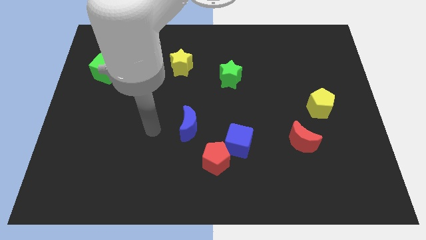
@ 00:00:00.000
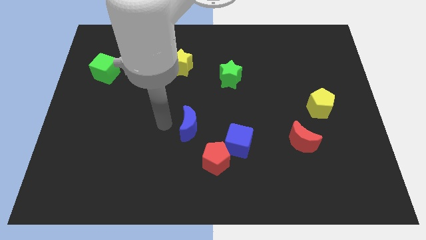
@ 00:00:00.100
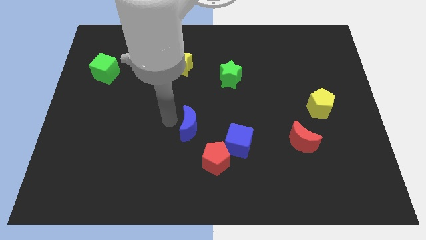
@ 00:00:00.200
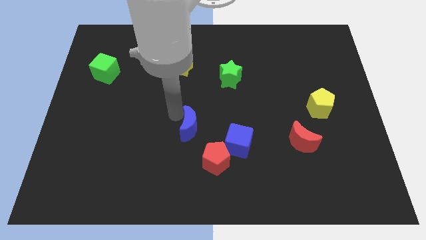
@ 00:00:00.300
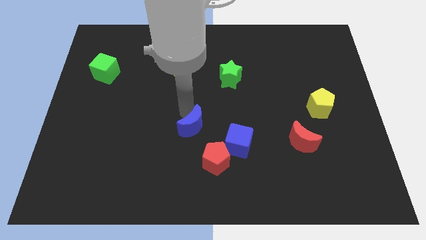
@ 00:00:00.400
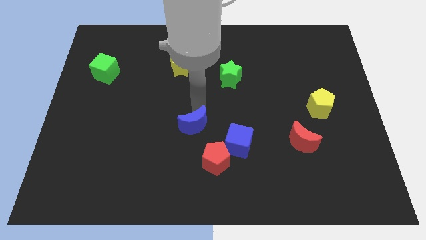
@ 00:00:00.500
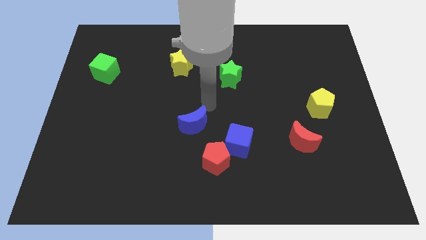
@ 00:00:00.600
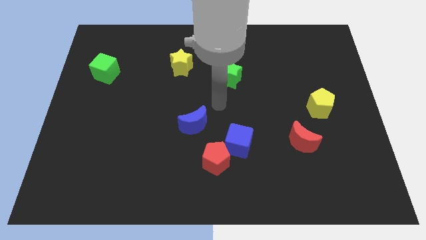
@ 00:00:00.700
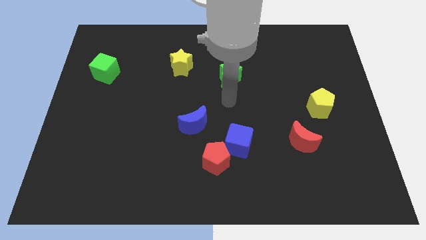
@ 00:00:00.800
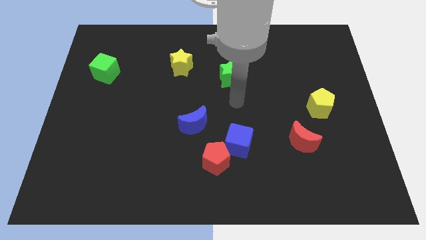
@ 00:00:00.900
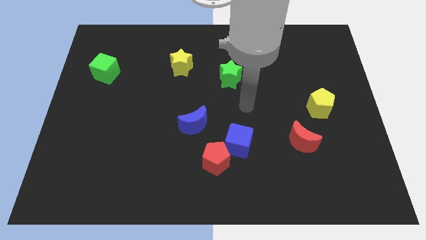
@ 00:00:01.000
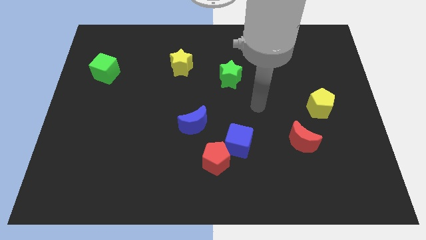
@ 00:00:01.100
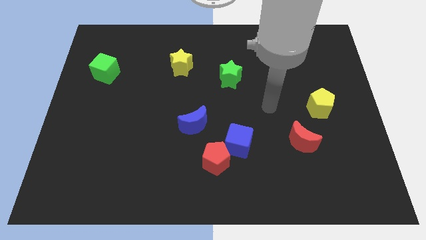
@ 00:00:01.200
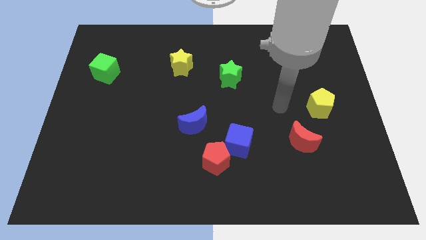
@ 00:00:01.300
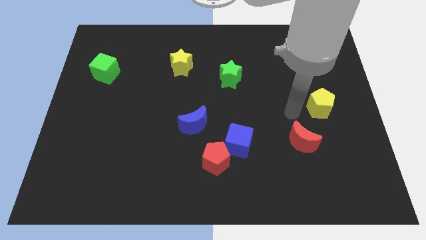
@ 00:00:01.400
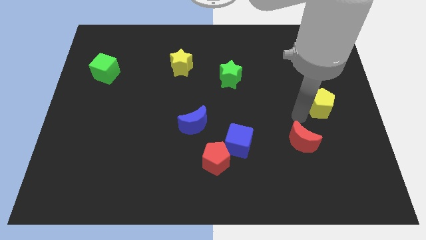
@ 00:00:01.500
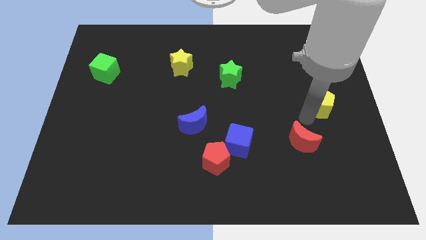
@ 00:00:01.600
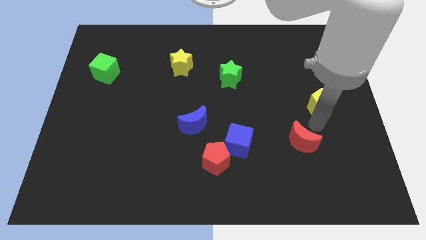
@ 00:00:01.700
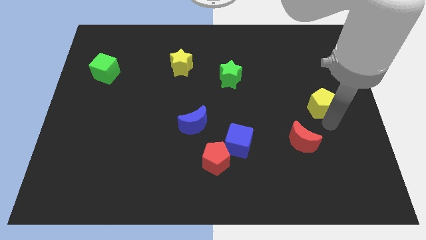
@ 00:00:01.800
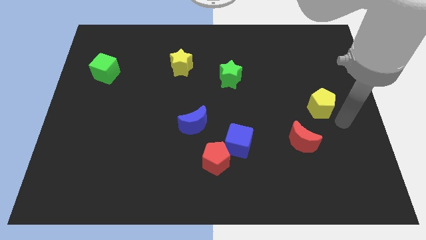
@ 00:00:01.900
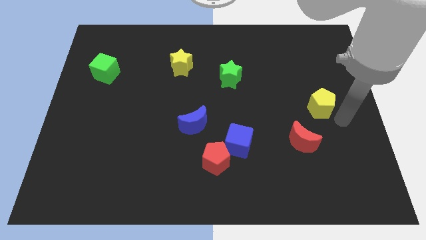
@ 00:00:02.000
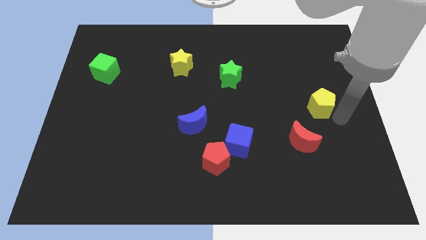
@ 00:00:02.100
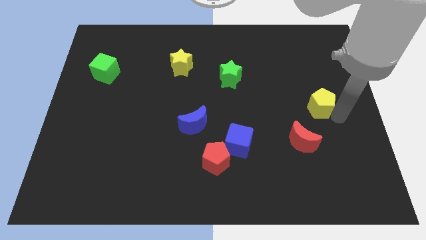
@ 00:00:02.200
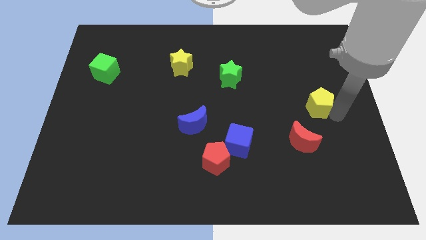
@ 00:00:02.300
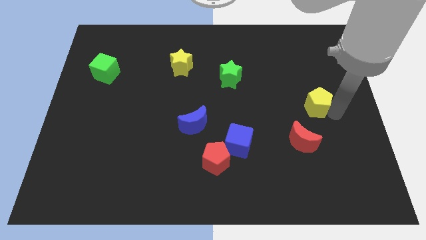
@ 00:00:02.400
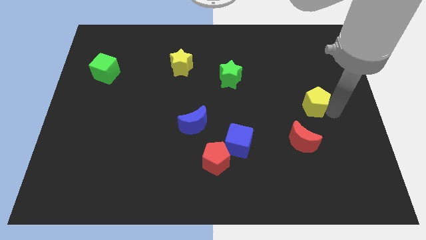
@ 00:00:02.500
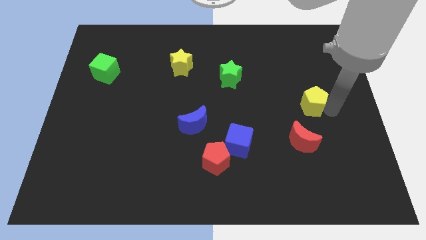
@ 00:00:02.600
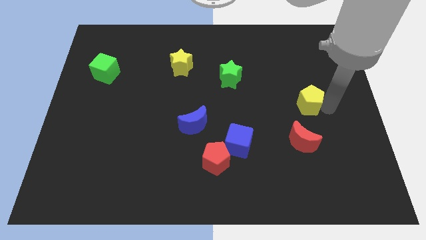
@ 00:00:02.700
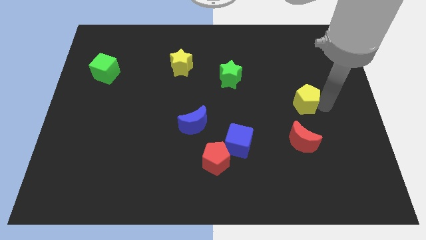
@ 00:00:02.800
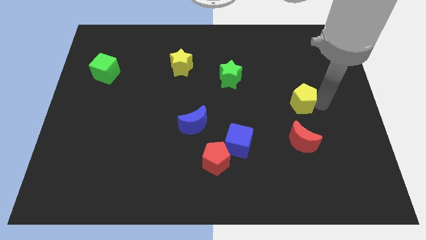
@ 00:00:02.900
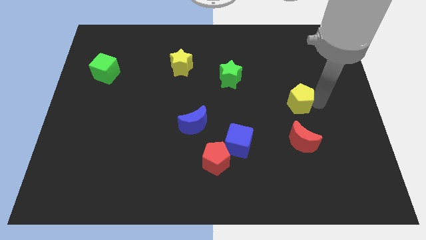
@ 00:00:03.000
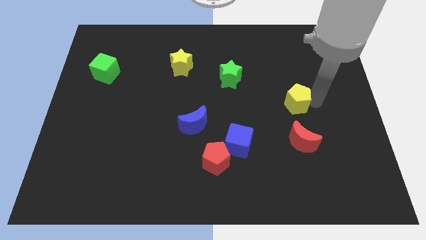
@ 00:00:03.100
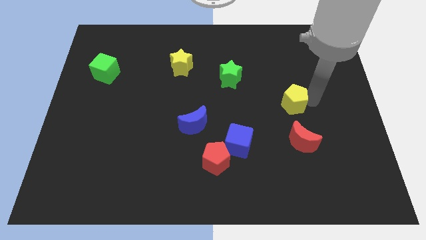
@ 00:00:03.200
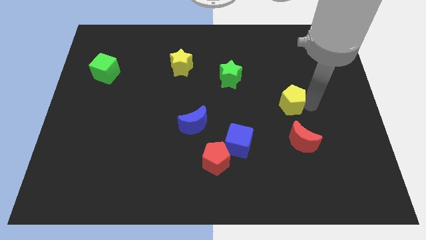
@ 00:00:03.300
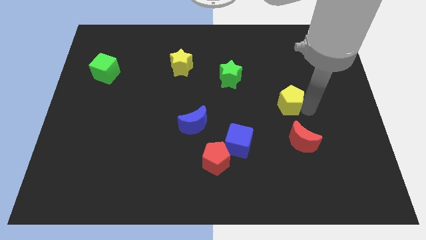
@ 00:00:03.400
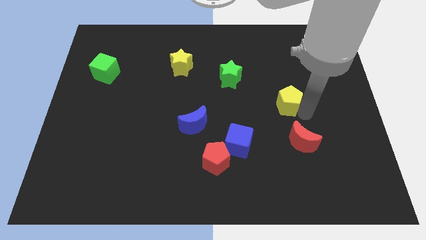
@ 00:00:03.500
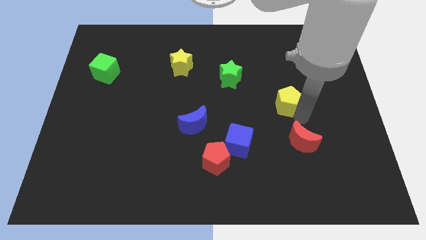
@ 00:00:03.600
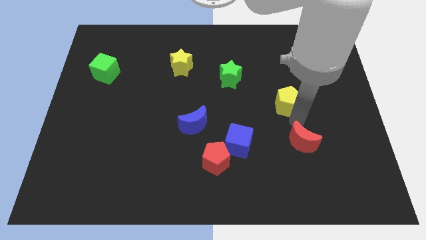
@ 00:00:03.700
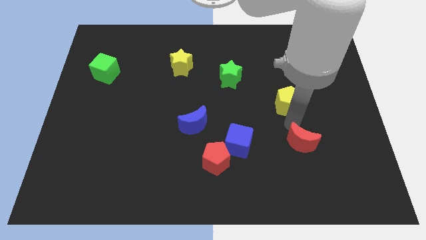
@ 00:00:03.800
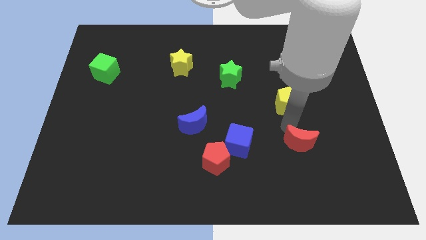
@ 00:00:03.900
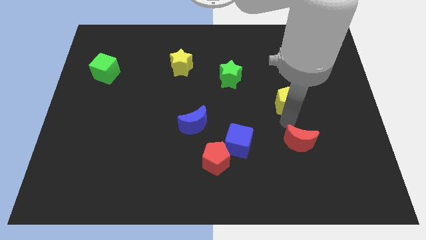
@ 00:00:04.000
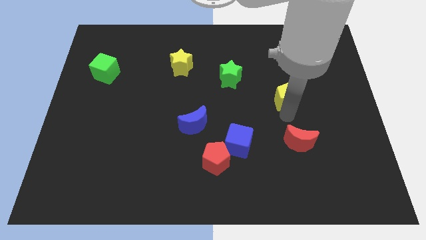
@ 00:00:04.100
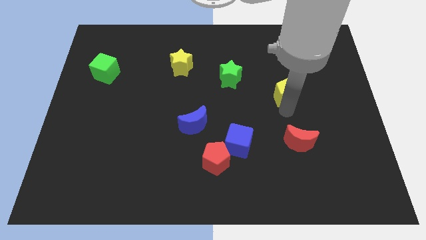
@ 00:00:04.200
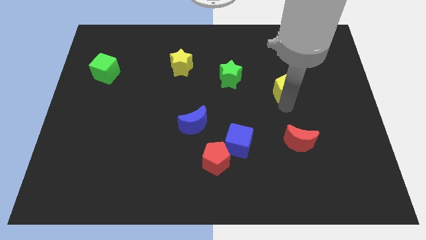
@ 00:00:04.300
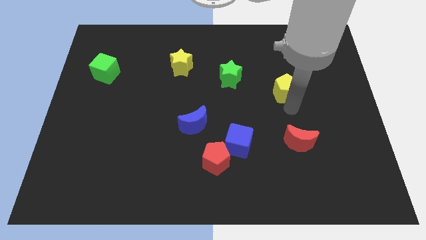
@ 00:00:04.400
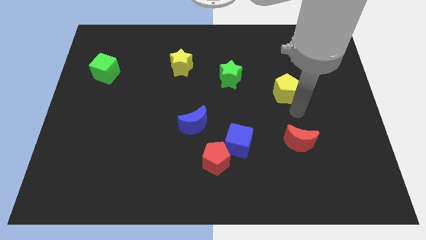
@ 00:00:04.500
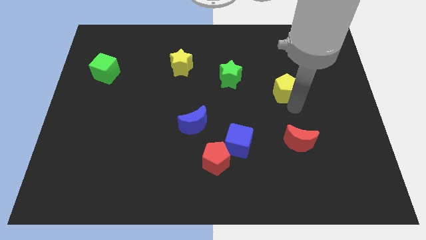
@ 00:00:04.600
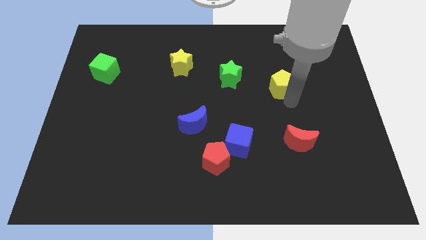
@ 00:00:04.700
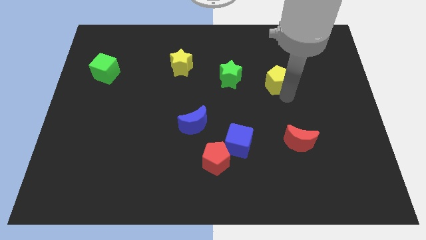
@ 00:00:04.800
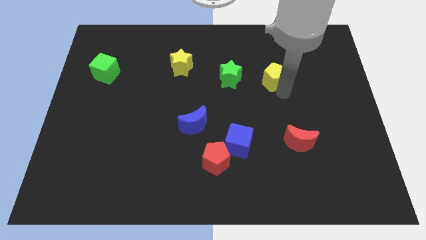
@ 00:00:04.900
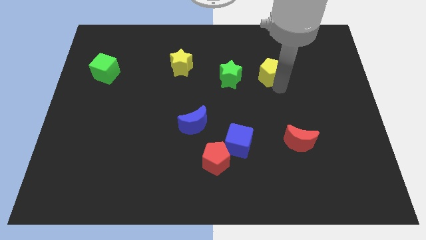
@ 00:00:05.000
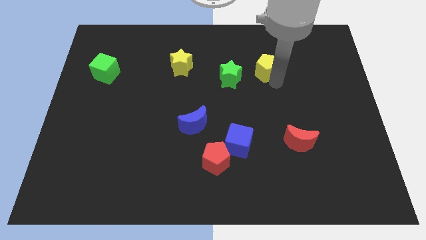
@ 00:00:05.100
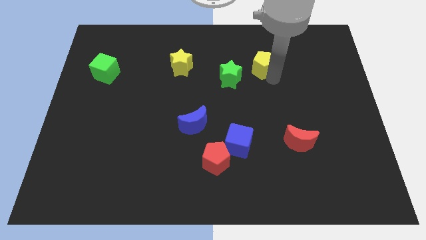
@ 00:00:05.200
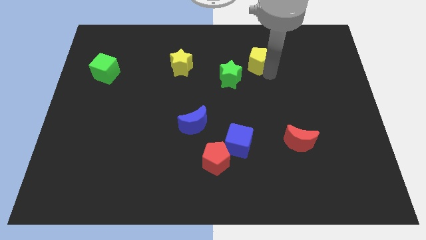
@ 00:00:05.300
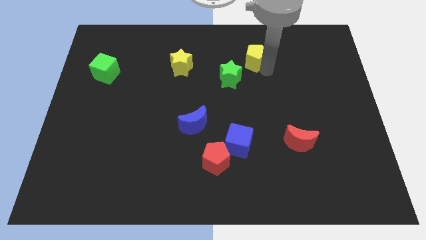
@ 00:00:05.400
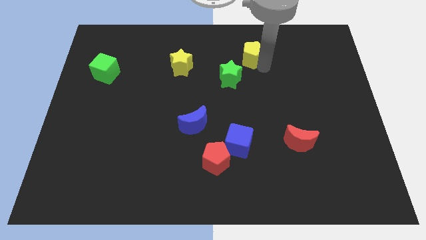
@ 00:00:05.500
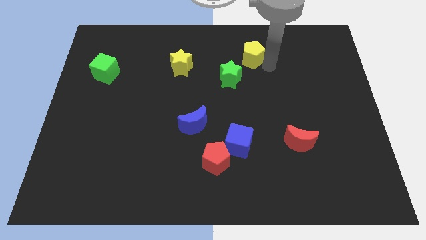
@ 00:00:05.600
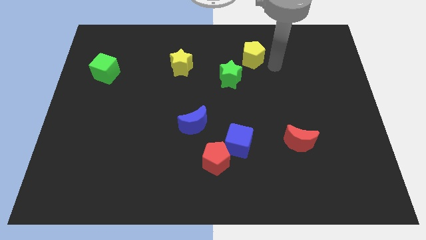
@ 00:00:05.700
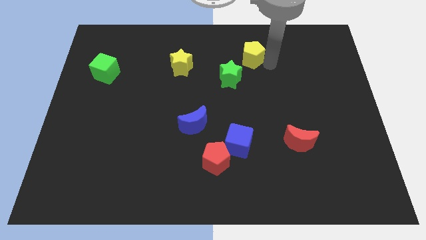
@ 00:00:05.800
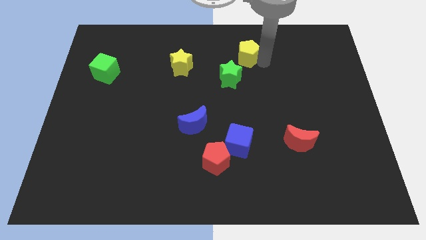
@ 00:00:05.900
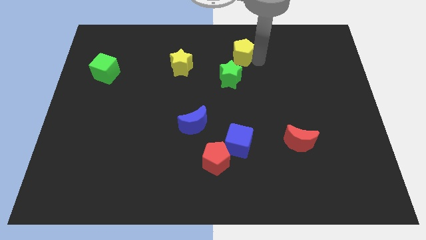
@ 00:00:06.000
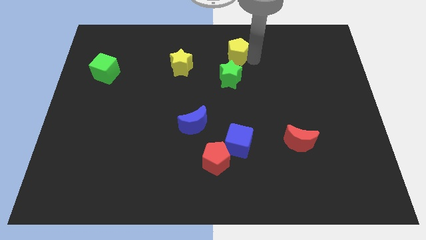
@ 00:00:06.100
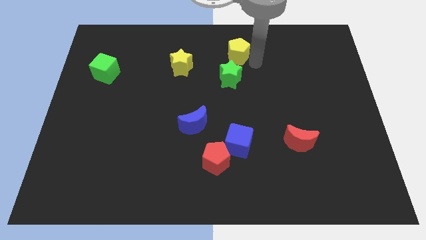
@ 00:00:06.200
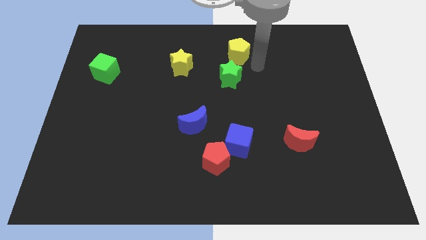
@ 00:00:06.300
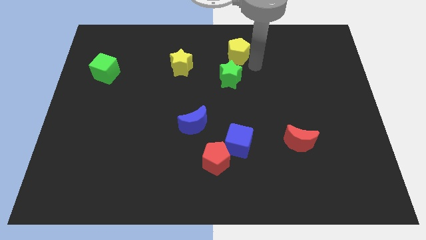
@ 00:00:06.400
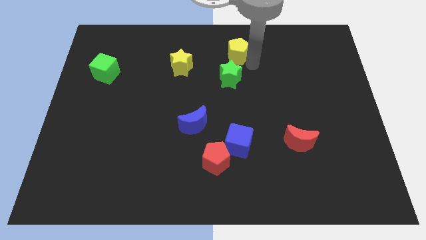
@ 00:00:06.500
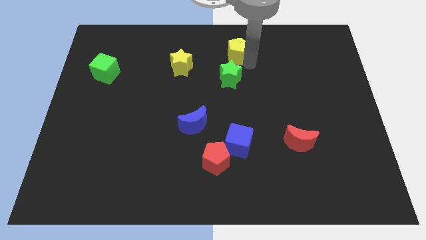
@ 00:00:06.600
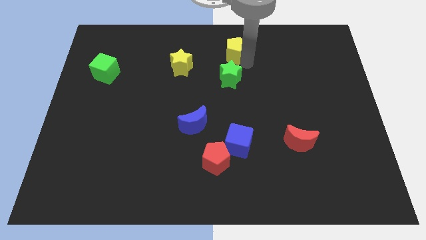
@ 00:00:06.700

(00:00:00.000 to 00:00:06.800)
slide the yellow pentagon to the towards your base
